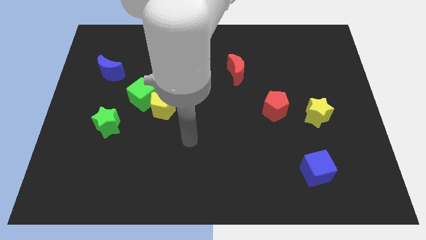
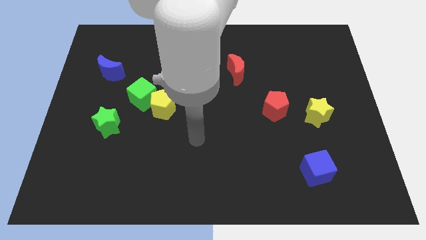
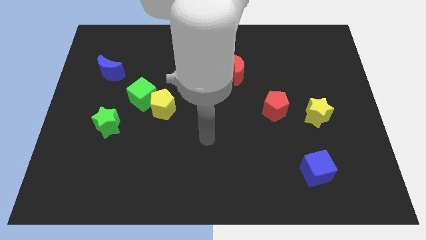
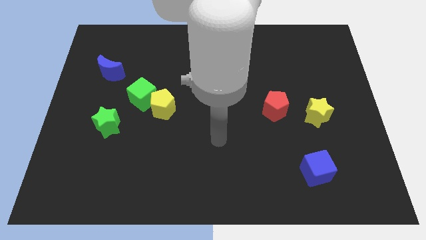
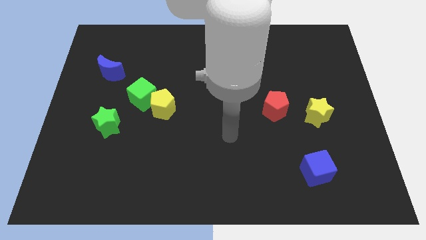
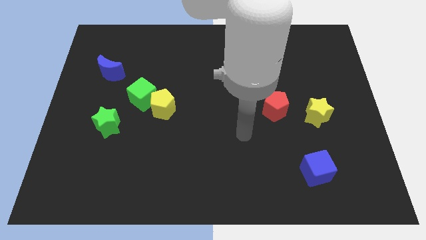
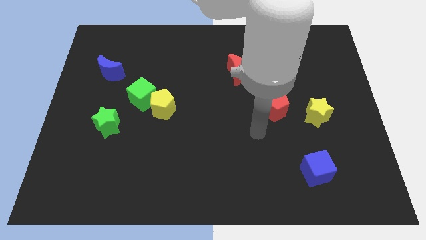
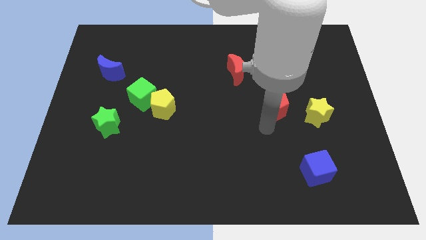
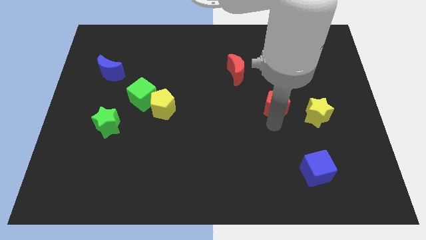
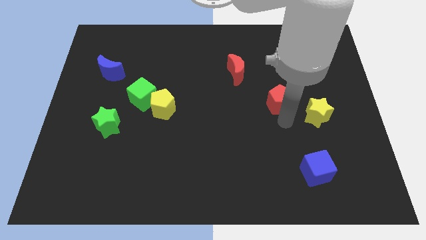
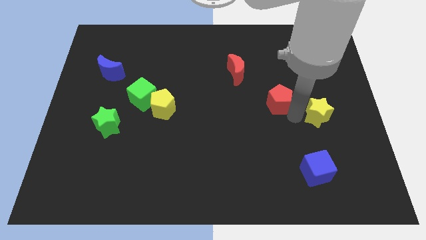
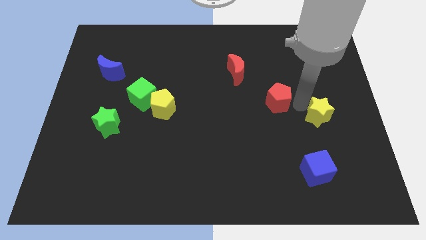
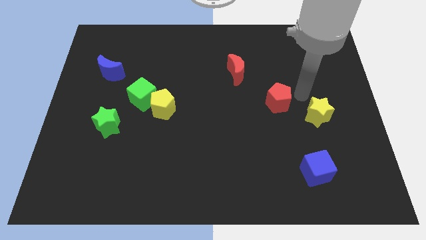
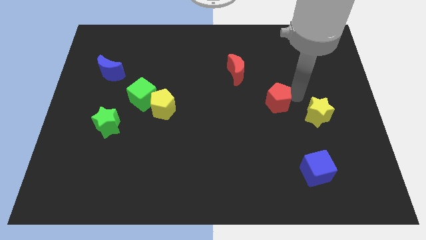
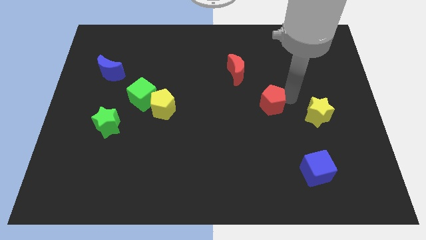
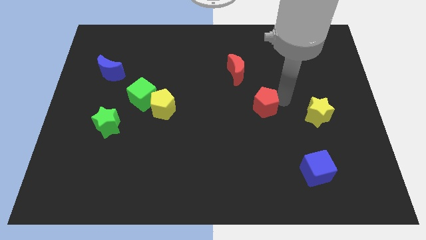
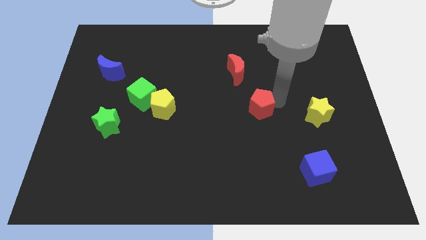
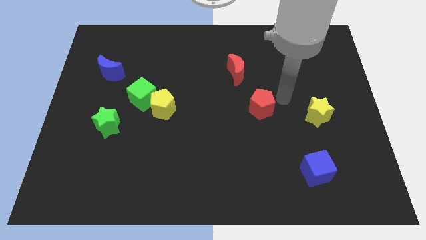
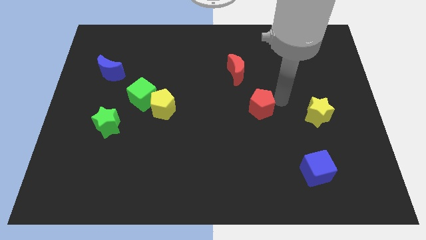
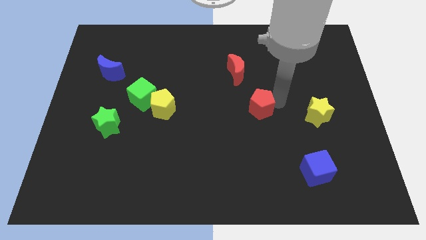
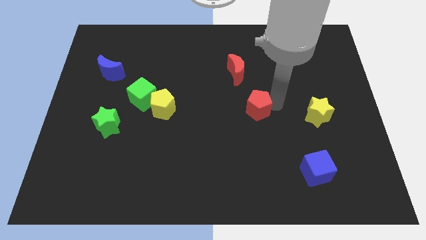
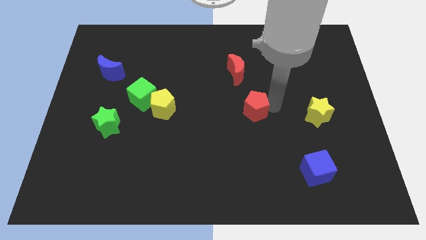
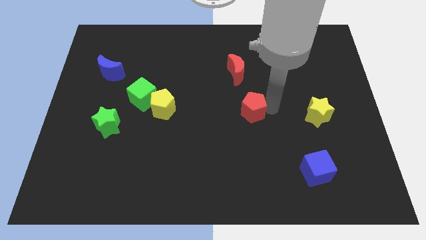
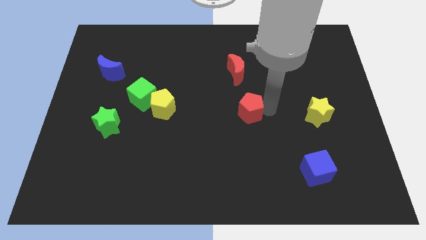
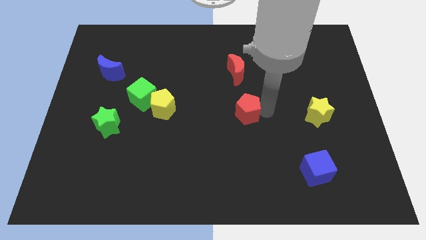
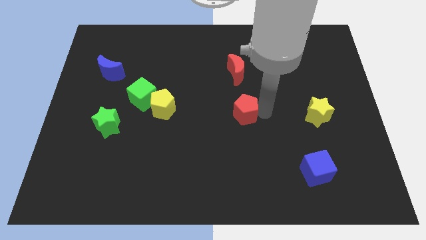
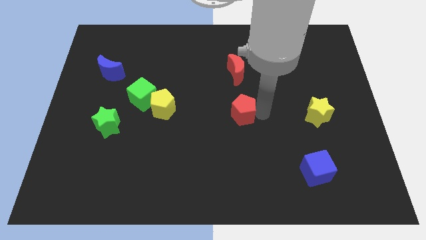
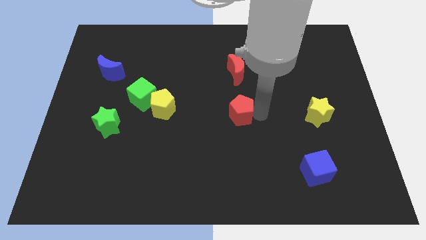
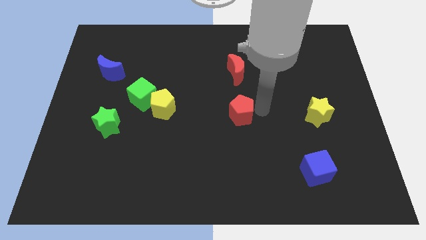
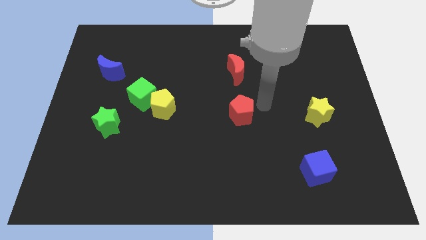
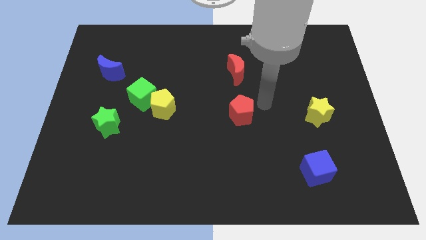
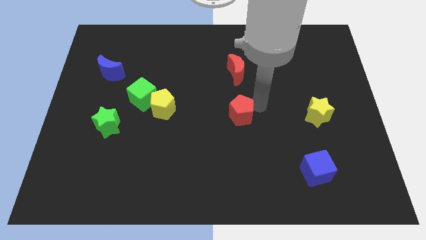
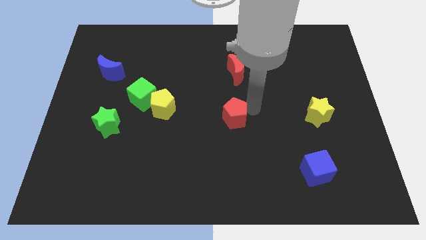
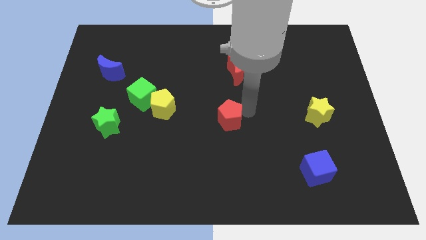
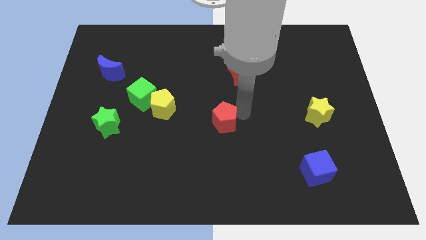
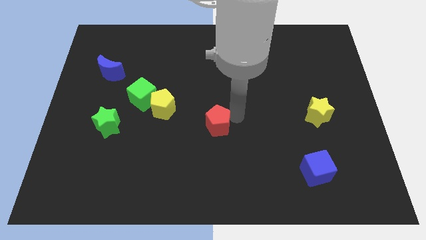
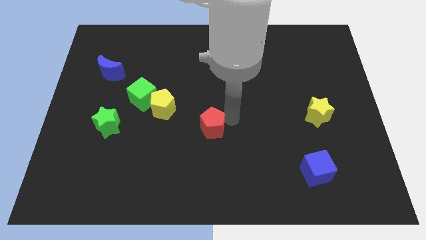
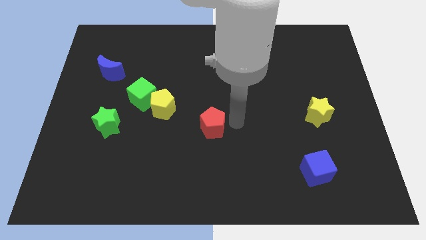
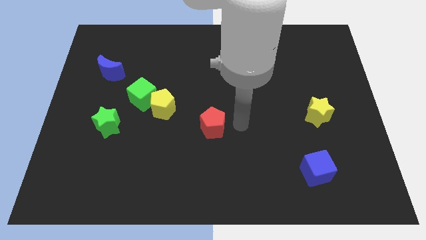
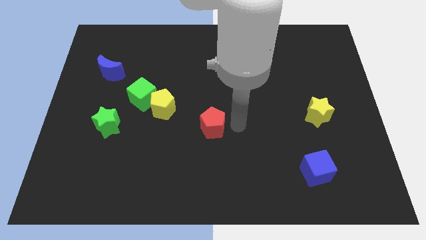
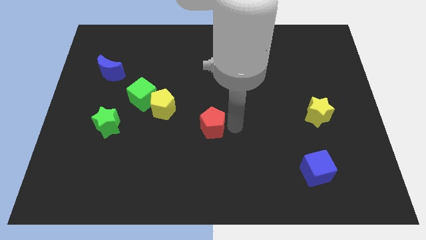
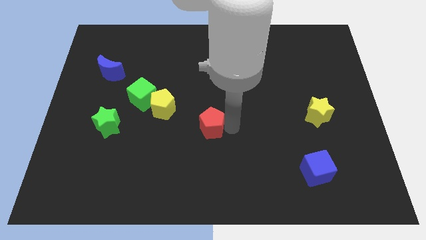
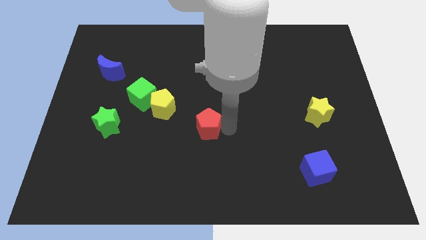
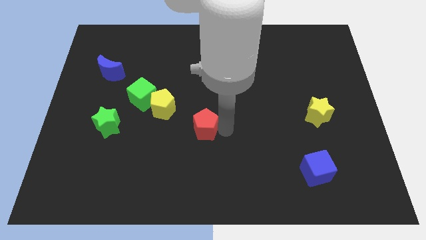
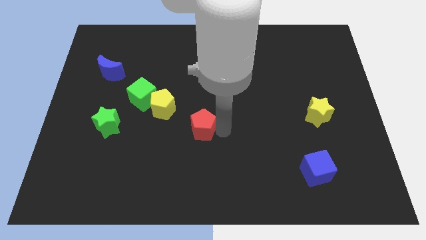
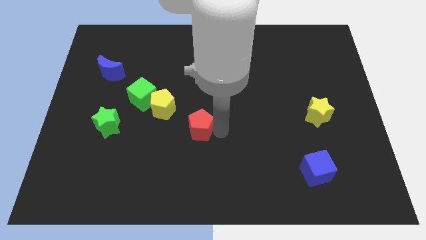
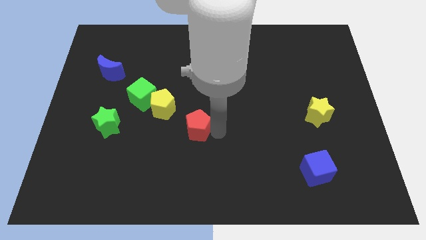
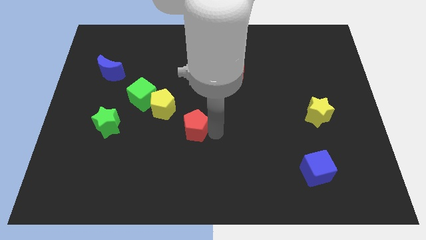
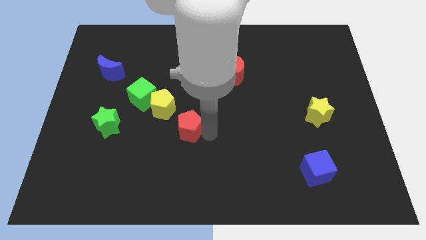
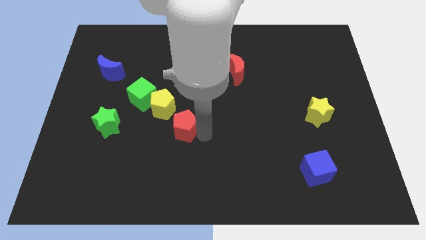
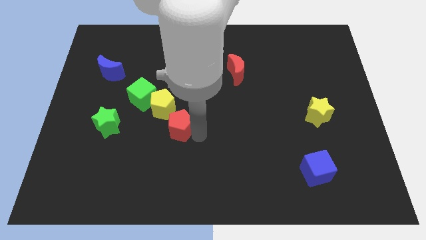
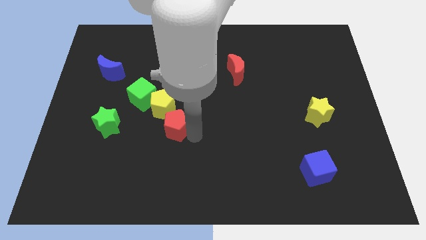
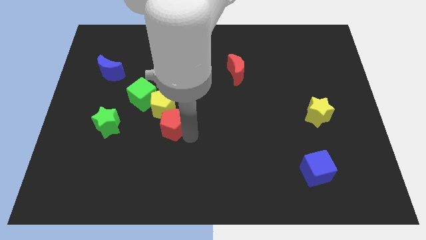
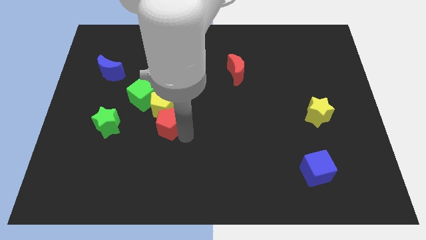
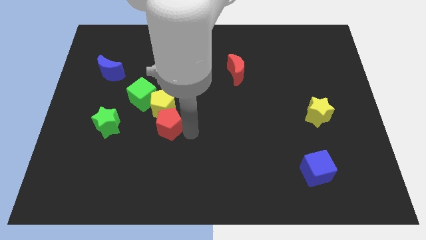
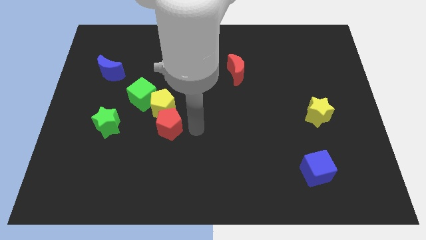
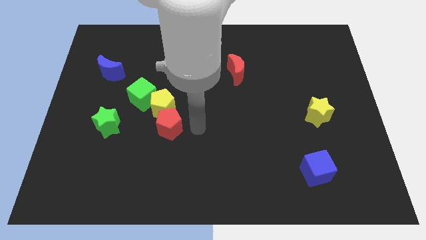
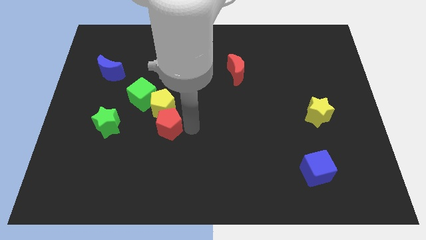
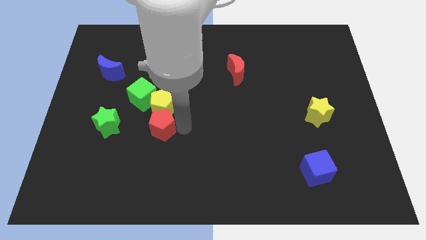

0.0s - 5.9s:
push the red pentagon diagonally down and to the left of the yellow pentagon

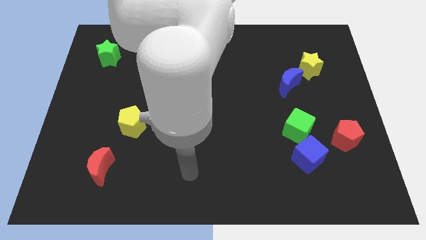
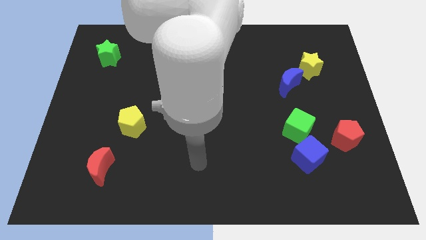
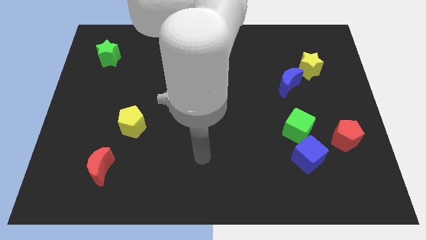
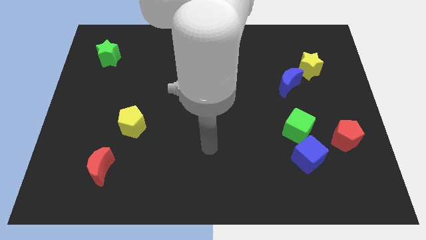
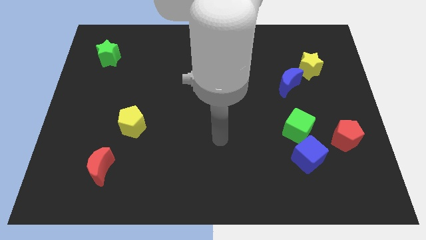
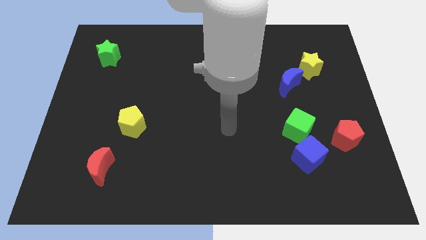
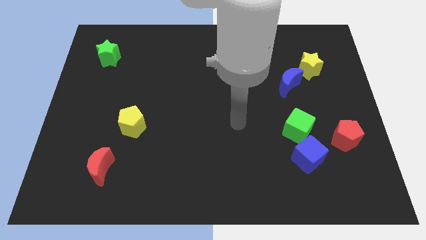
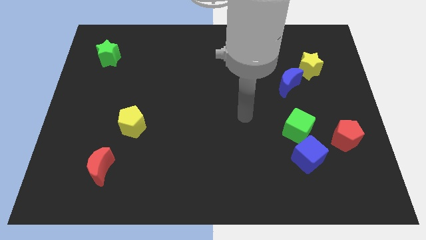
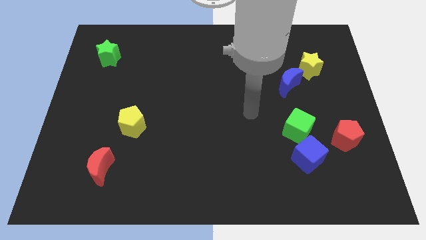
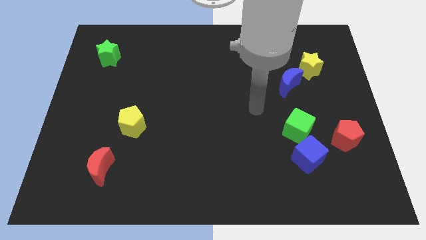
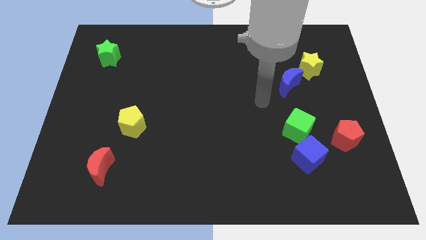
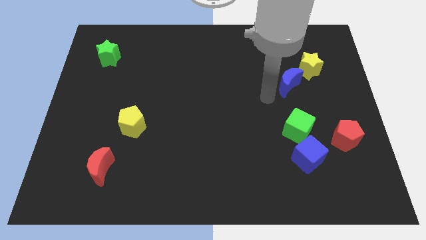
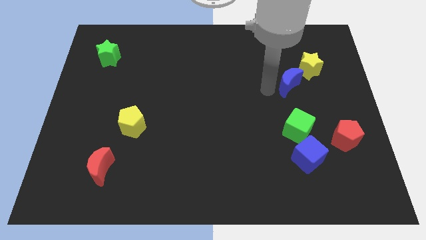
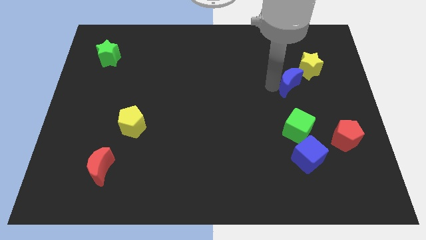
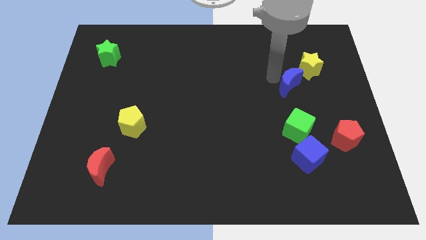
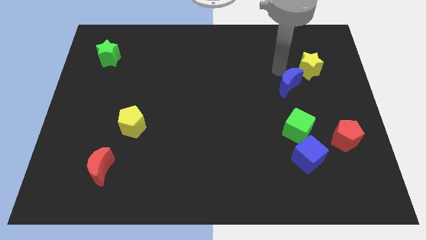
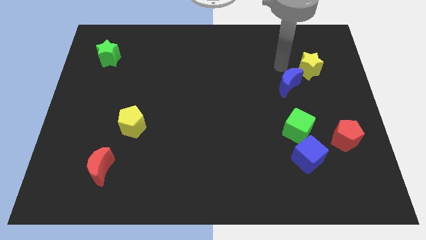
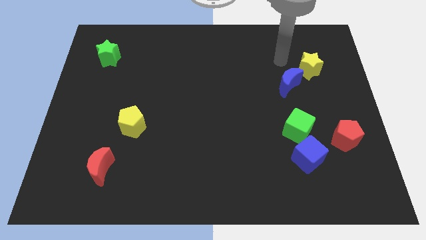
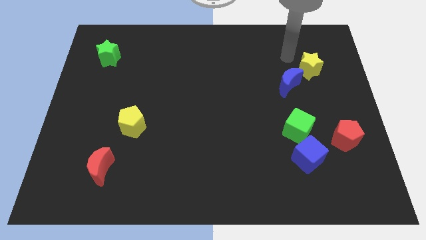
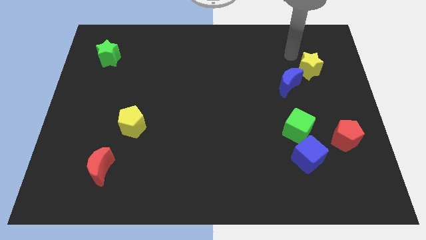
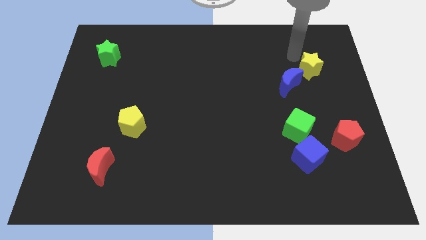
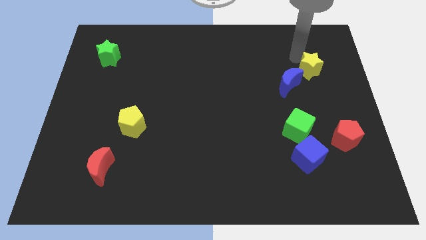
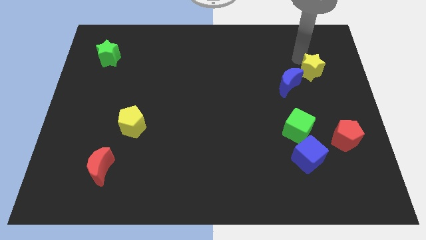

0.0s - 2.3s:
put the yellow star to the right of the blue moon
